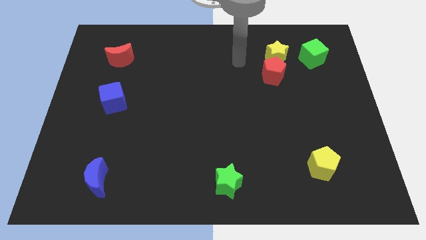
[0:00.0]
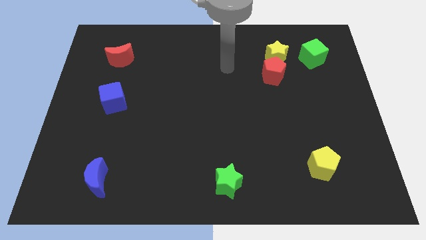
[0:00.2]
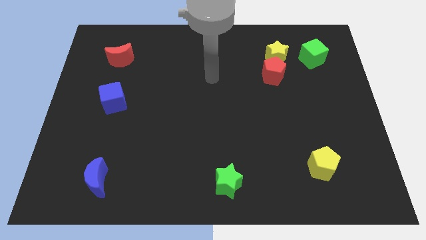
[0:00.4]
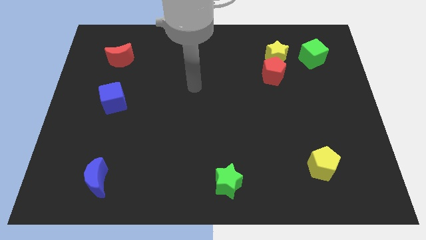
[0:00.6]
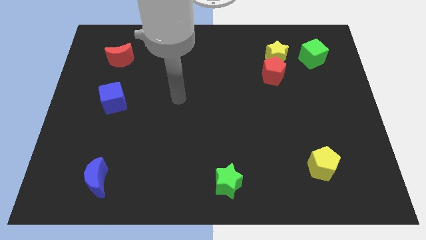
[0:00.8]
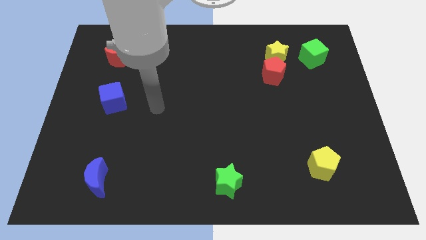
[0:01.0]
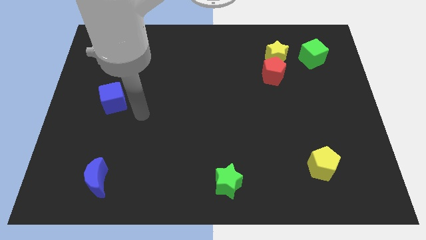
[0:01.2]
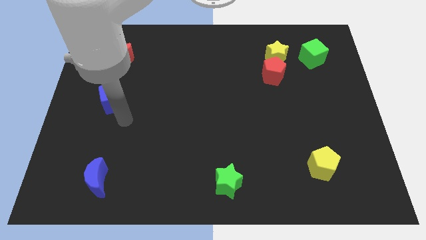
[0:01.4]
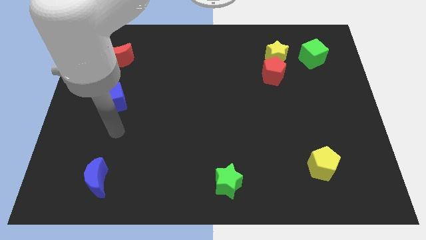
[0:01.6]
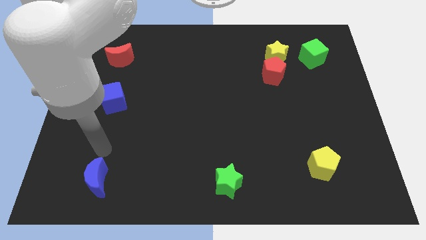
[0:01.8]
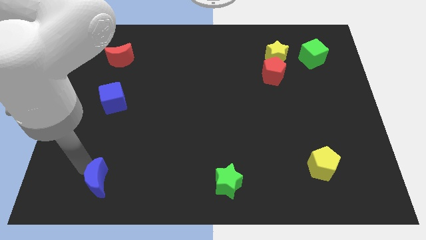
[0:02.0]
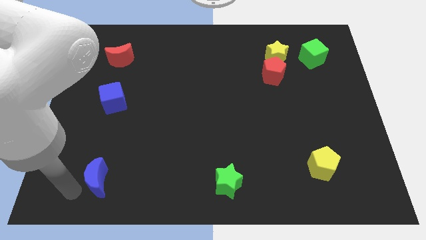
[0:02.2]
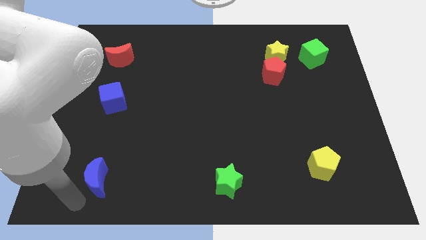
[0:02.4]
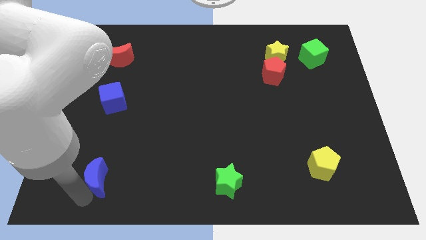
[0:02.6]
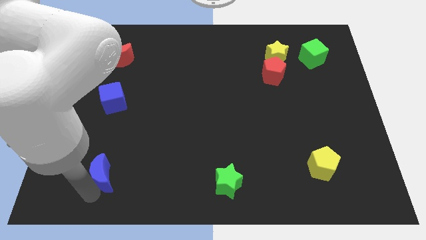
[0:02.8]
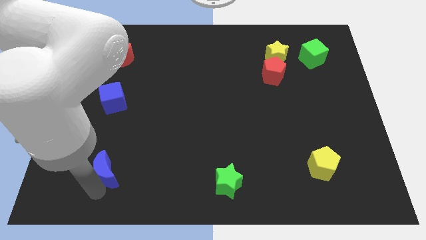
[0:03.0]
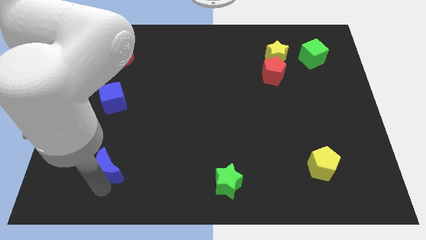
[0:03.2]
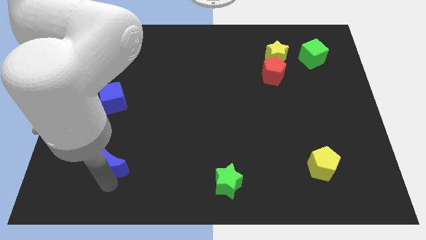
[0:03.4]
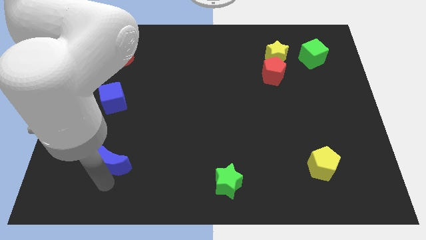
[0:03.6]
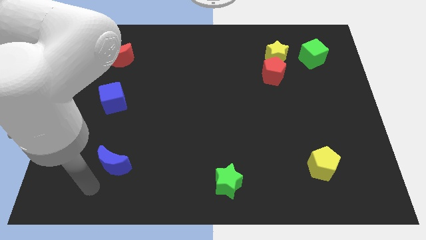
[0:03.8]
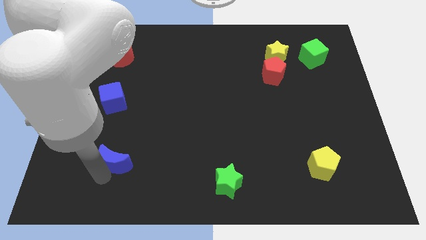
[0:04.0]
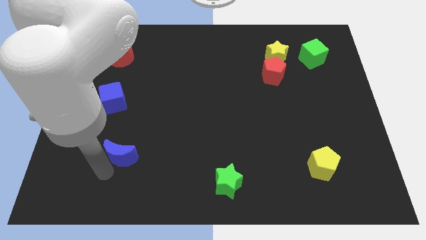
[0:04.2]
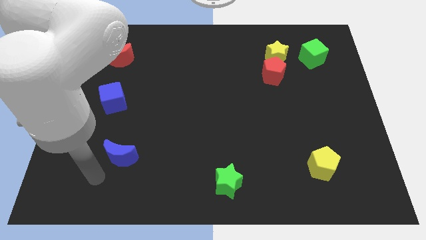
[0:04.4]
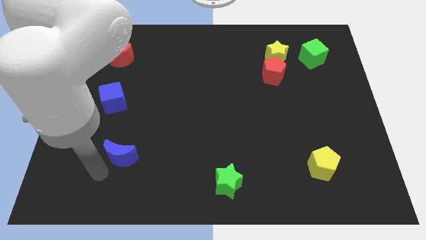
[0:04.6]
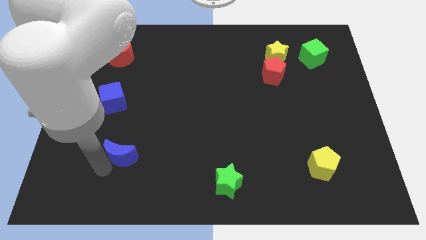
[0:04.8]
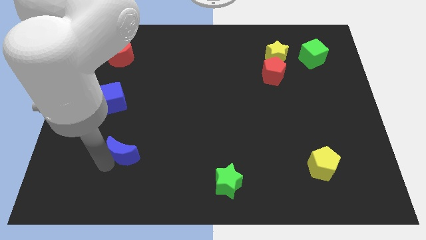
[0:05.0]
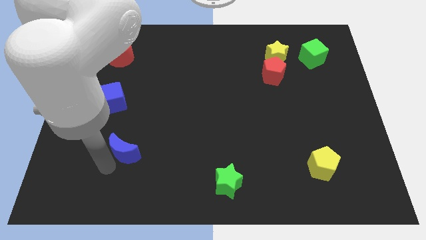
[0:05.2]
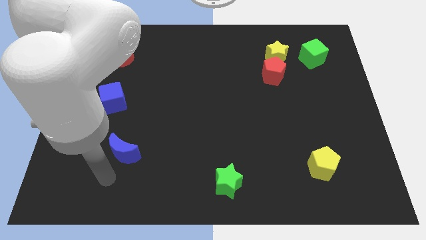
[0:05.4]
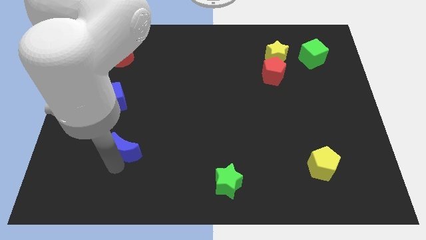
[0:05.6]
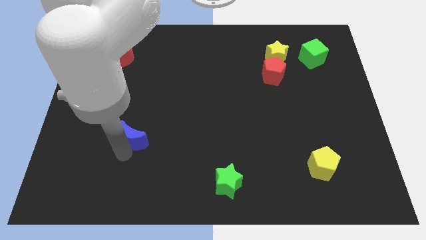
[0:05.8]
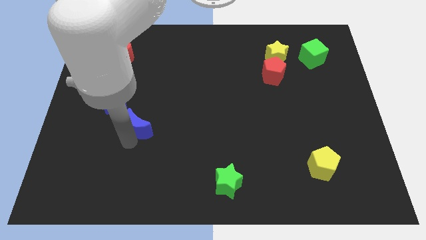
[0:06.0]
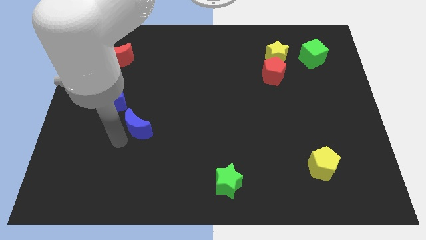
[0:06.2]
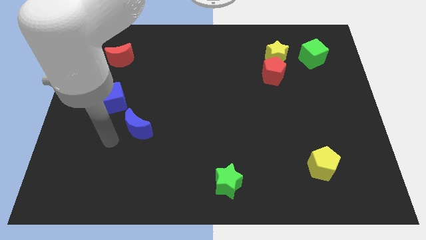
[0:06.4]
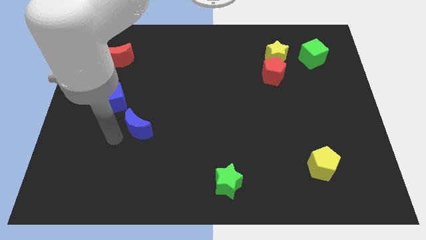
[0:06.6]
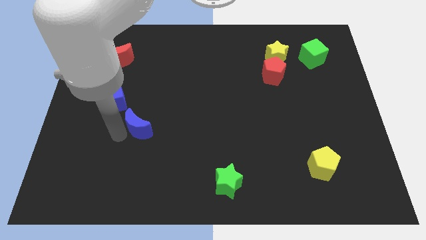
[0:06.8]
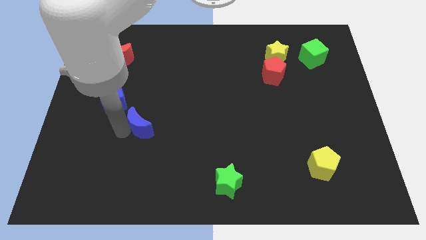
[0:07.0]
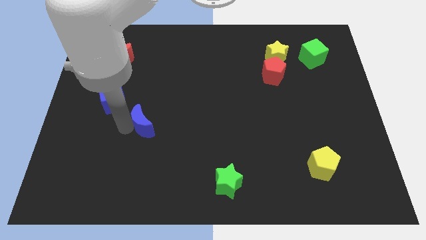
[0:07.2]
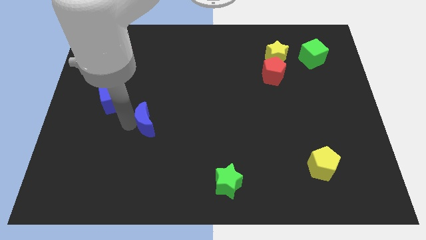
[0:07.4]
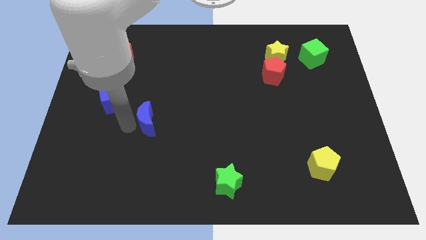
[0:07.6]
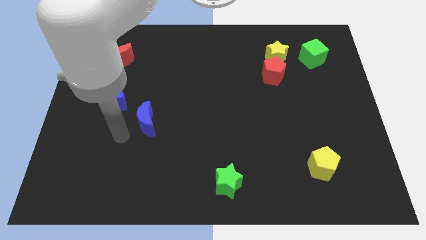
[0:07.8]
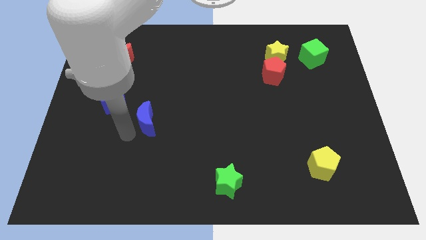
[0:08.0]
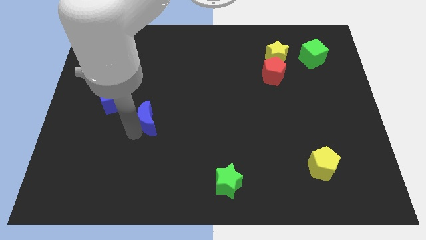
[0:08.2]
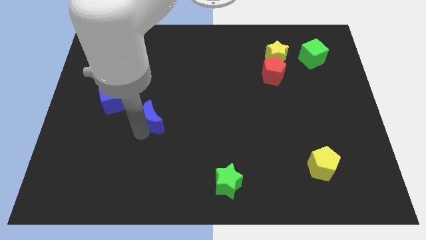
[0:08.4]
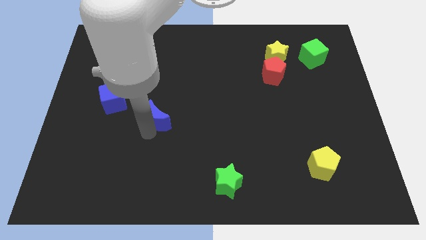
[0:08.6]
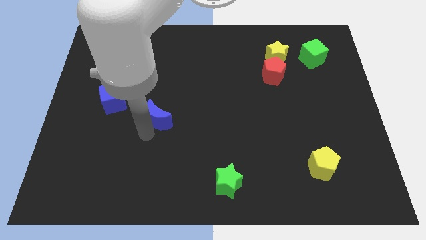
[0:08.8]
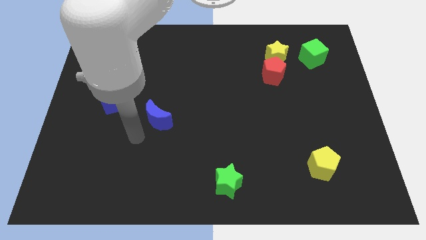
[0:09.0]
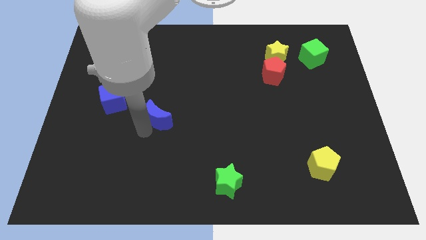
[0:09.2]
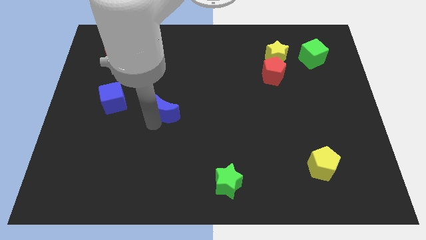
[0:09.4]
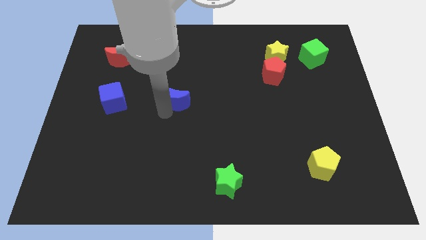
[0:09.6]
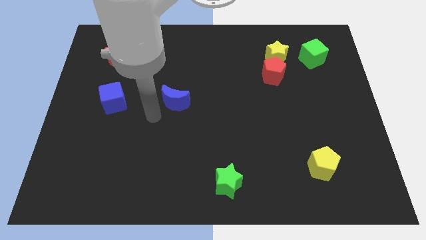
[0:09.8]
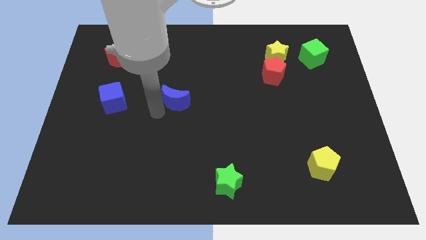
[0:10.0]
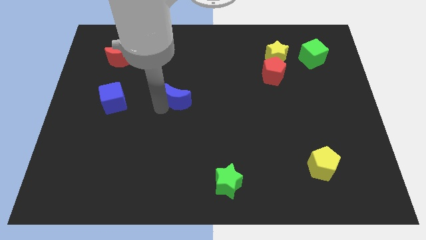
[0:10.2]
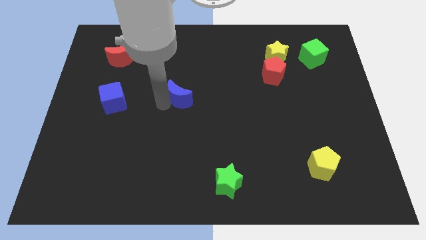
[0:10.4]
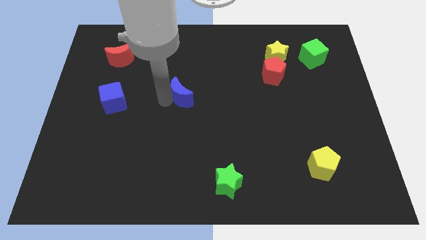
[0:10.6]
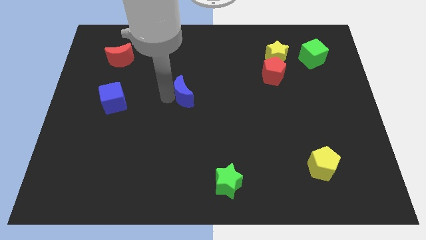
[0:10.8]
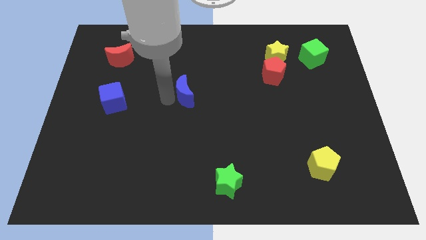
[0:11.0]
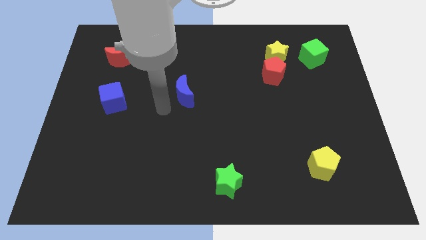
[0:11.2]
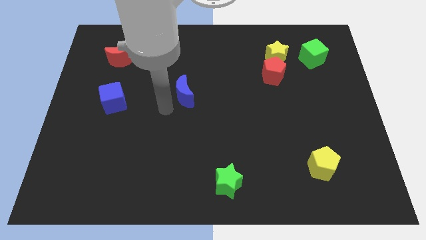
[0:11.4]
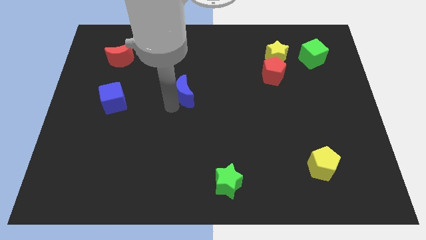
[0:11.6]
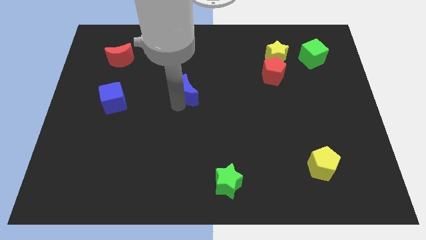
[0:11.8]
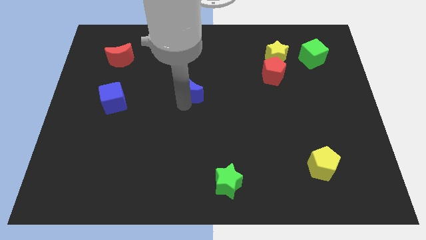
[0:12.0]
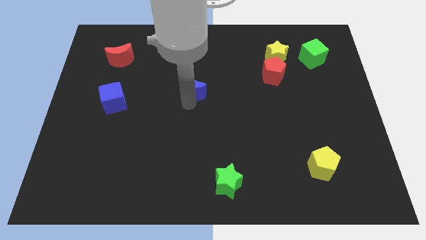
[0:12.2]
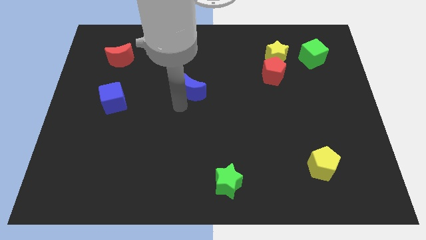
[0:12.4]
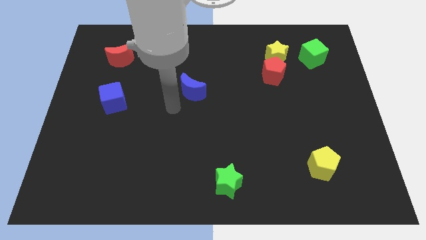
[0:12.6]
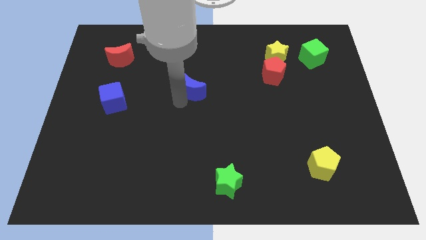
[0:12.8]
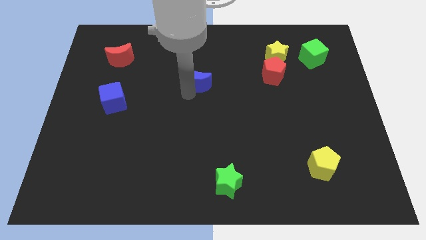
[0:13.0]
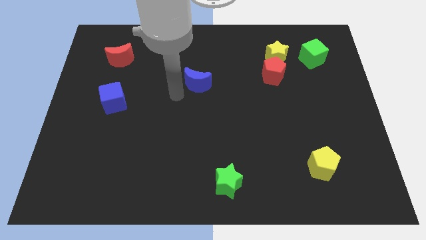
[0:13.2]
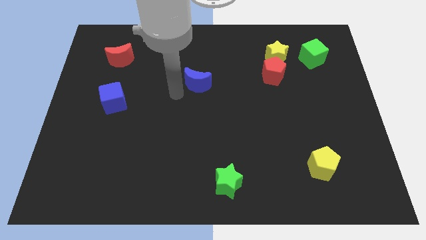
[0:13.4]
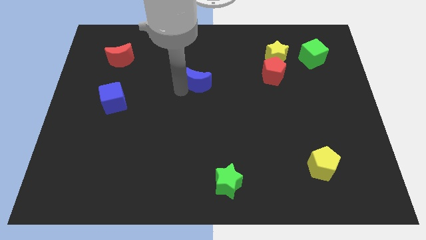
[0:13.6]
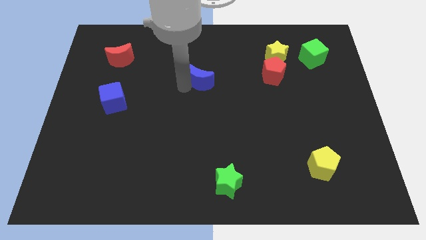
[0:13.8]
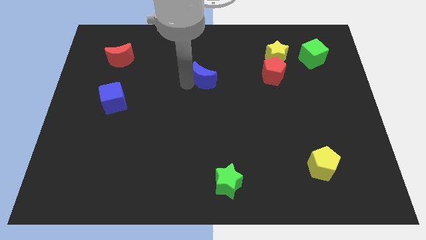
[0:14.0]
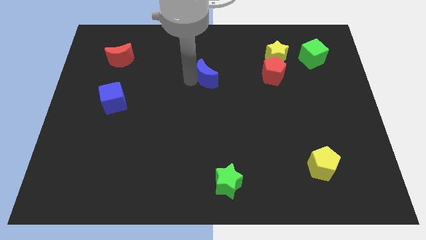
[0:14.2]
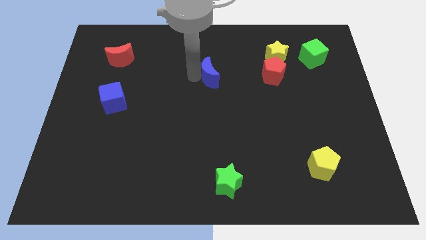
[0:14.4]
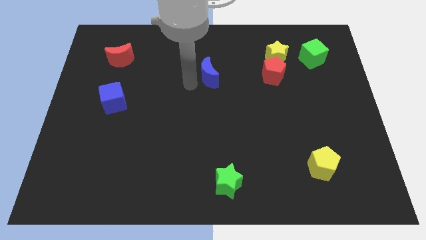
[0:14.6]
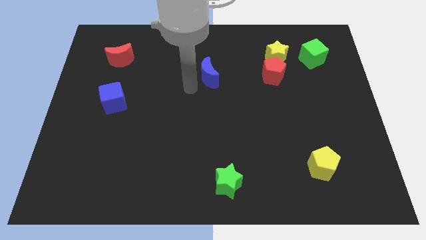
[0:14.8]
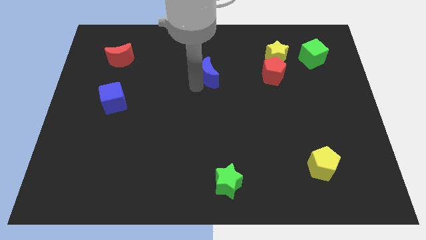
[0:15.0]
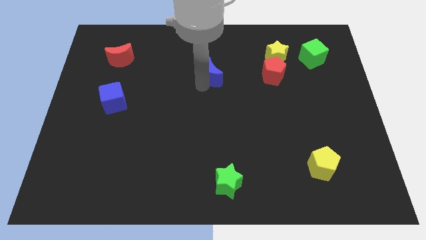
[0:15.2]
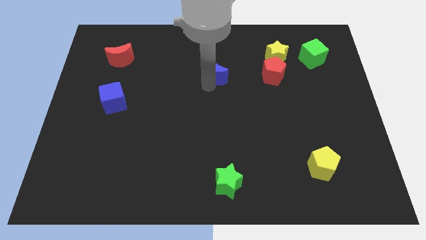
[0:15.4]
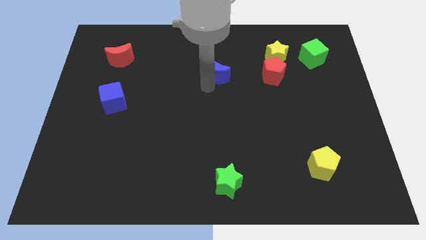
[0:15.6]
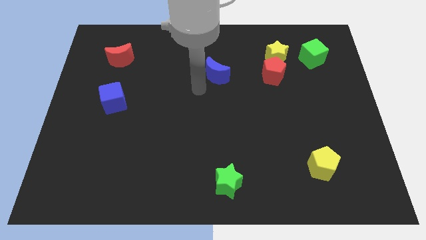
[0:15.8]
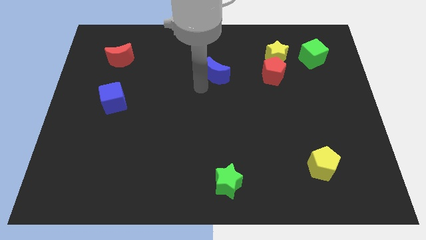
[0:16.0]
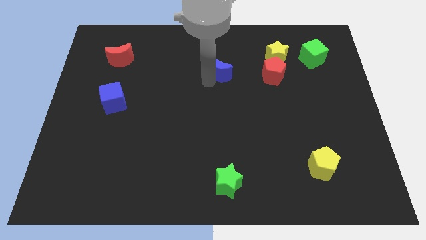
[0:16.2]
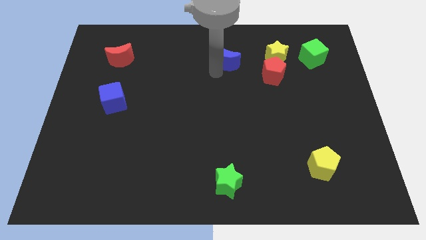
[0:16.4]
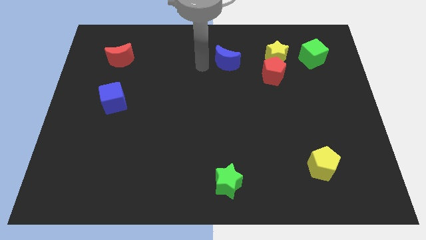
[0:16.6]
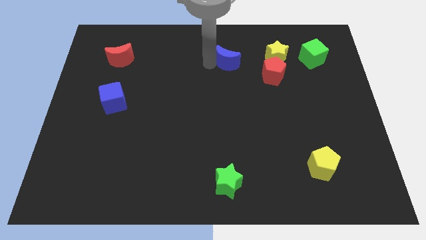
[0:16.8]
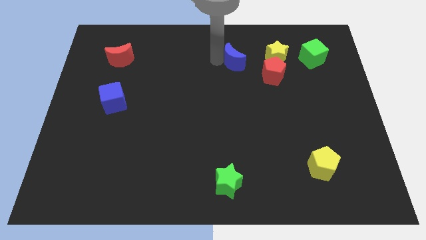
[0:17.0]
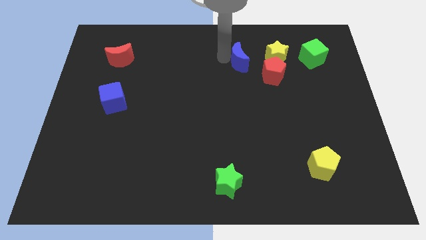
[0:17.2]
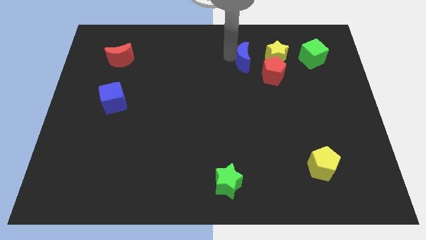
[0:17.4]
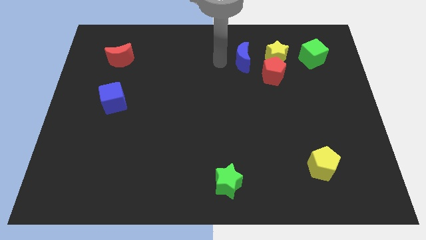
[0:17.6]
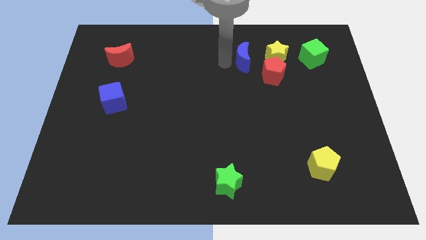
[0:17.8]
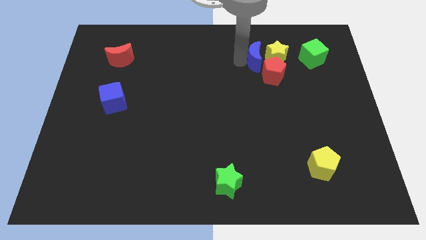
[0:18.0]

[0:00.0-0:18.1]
slide the blue moon to the left side of the green cube
